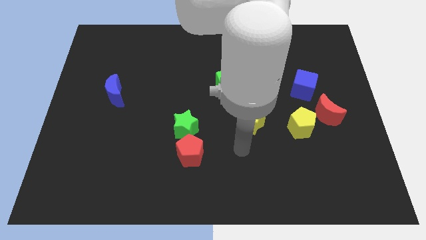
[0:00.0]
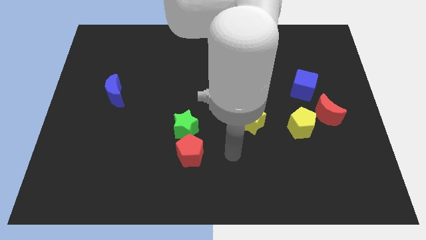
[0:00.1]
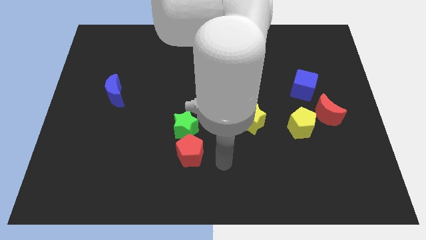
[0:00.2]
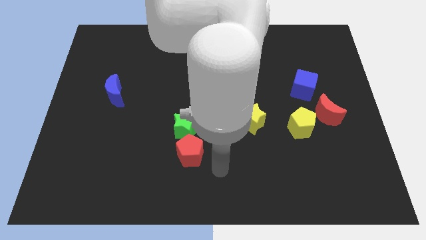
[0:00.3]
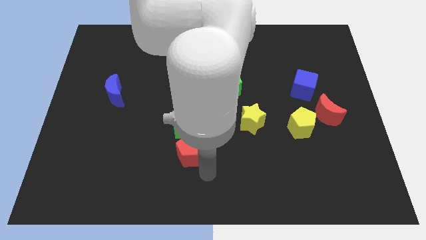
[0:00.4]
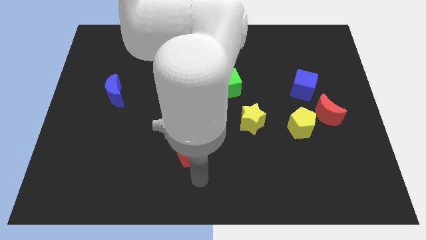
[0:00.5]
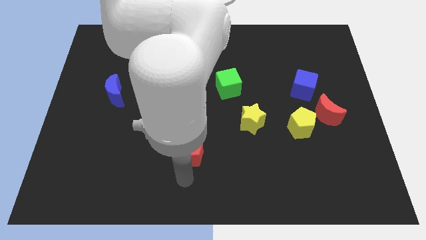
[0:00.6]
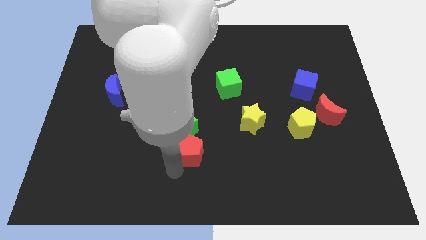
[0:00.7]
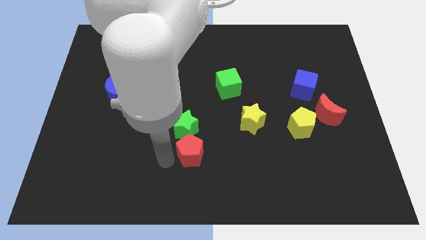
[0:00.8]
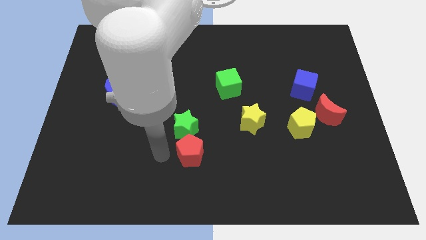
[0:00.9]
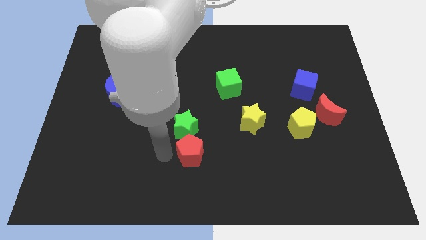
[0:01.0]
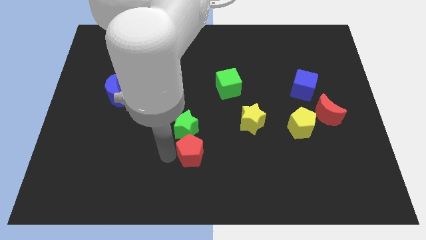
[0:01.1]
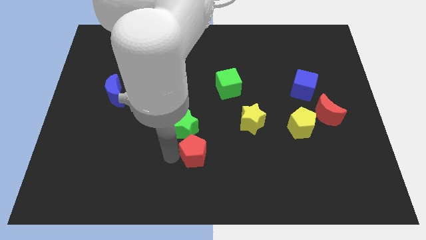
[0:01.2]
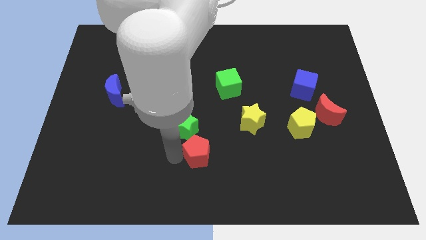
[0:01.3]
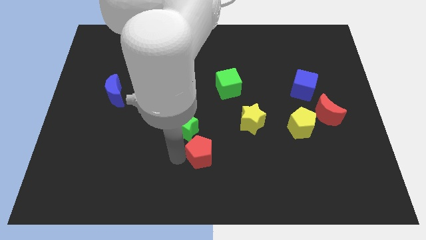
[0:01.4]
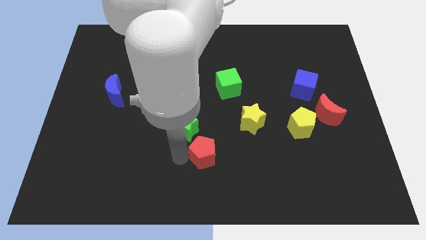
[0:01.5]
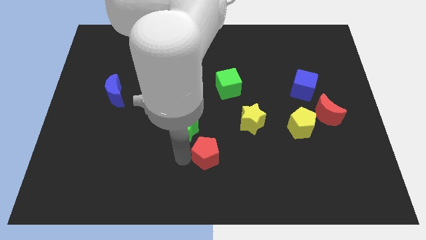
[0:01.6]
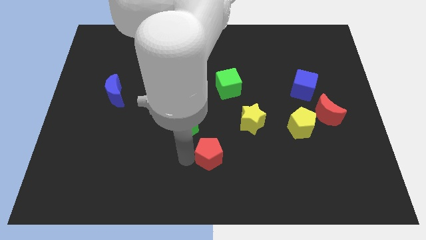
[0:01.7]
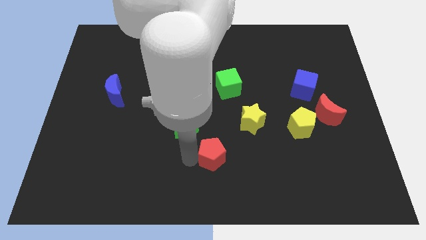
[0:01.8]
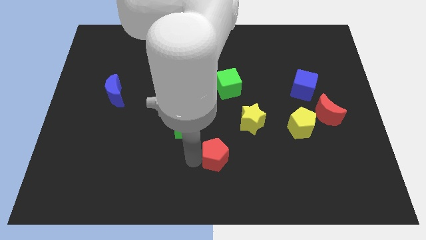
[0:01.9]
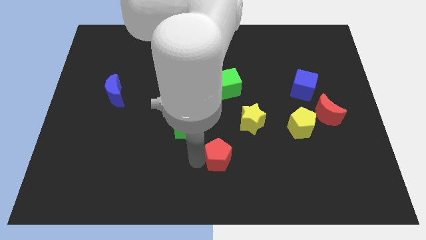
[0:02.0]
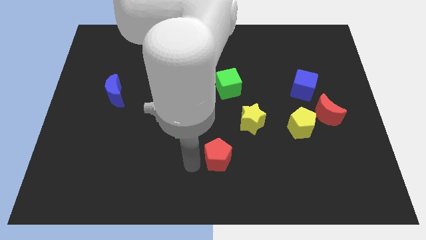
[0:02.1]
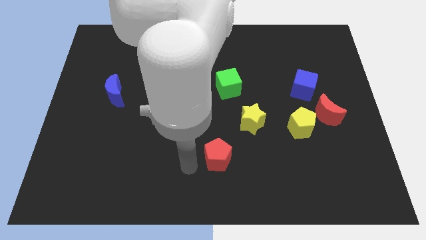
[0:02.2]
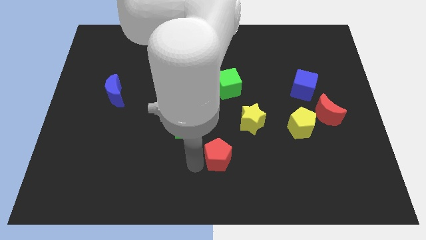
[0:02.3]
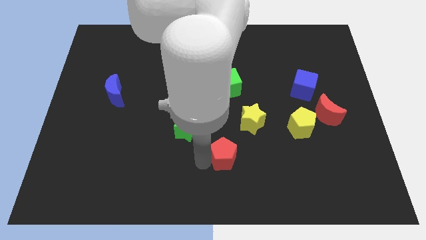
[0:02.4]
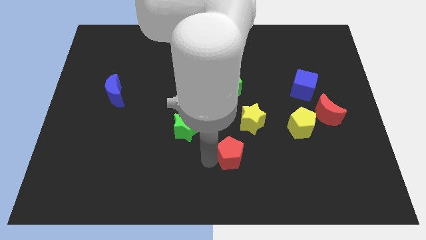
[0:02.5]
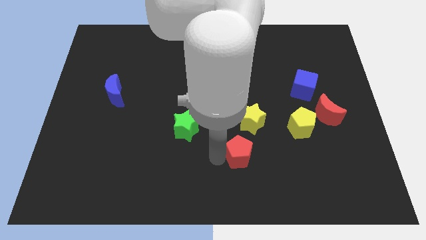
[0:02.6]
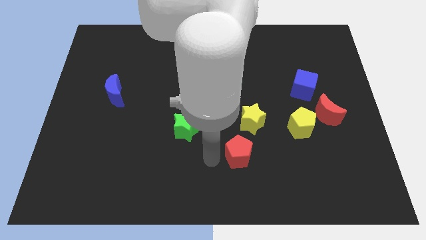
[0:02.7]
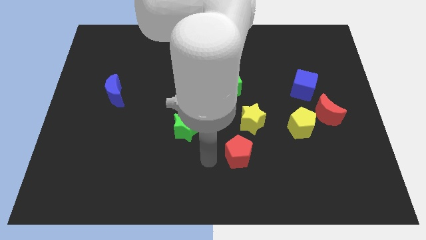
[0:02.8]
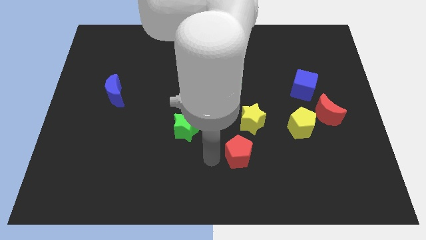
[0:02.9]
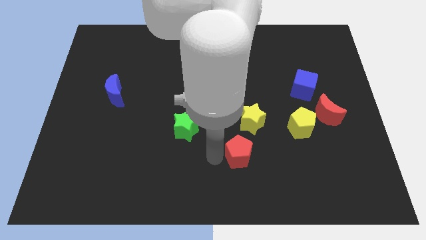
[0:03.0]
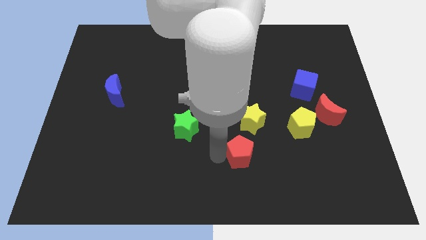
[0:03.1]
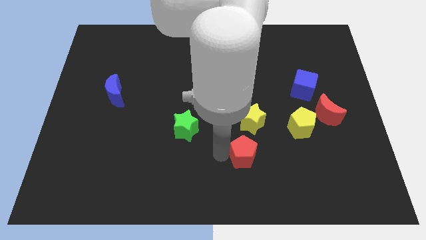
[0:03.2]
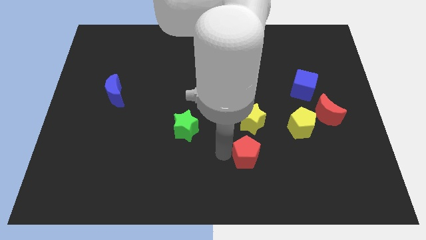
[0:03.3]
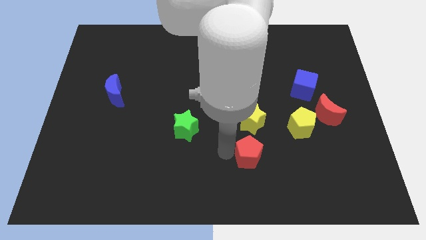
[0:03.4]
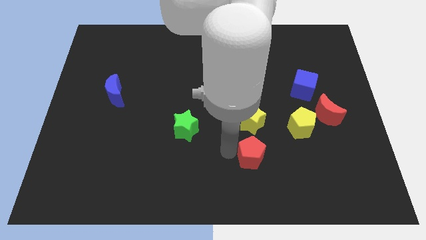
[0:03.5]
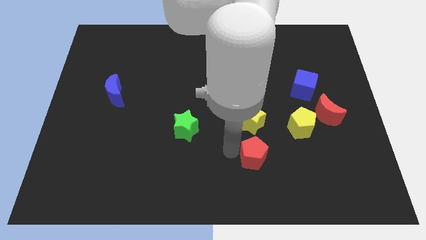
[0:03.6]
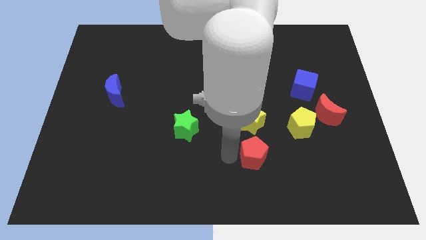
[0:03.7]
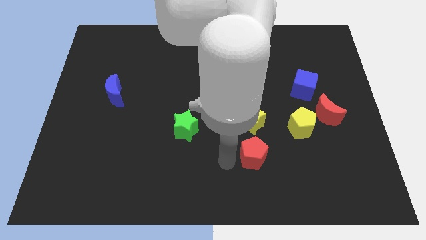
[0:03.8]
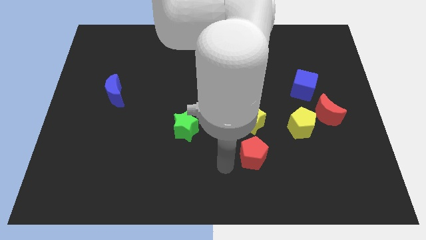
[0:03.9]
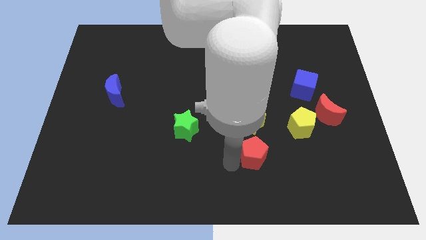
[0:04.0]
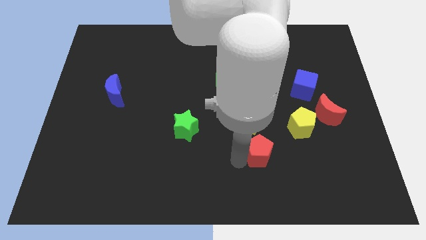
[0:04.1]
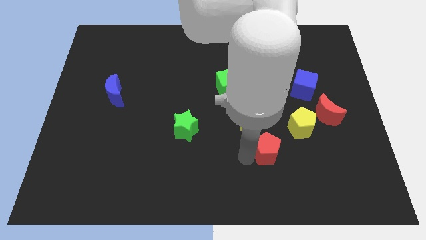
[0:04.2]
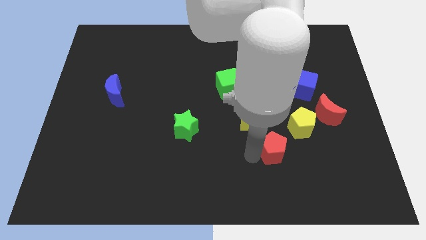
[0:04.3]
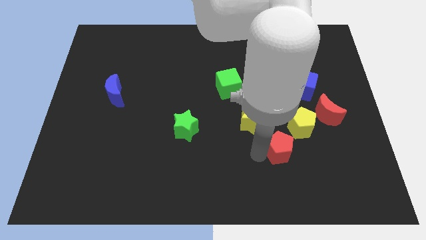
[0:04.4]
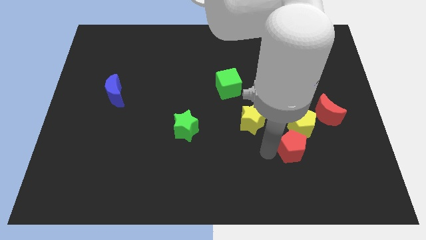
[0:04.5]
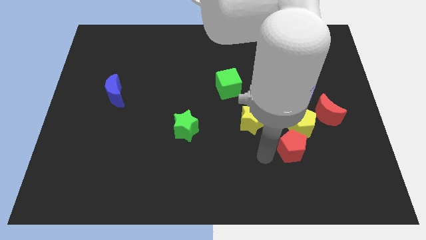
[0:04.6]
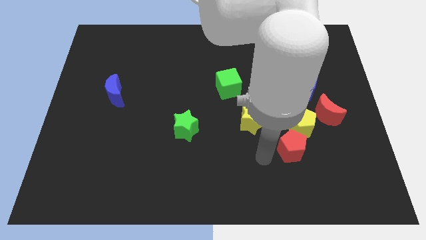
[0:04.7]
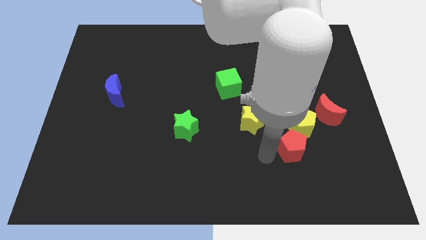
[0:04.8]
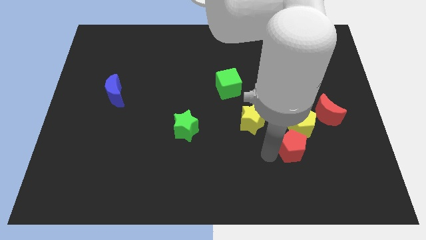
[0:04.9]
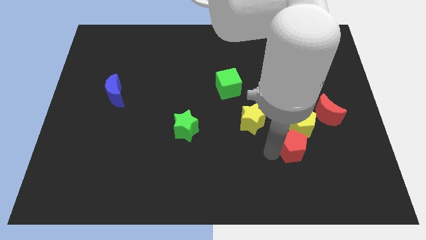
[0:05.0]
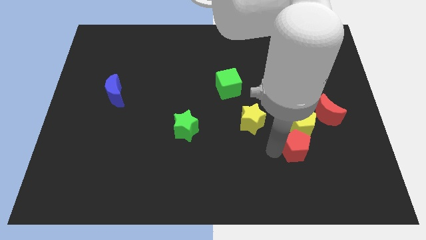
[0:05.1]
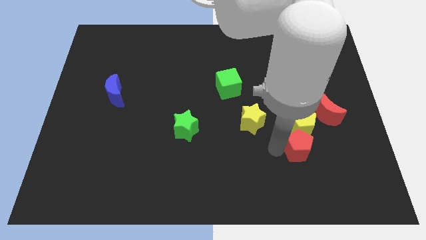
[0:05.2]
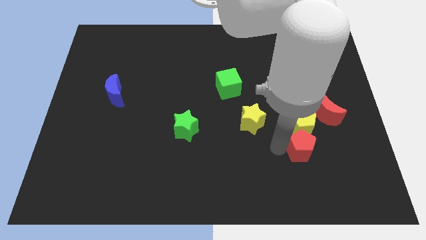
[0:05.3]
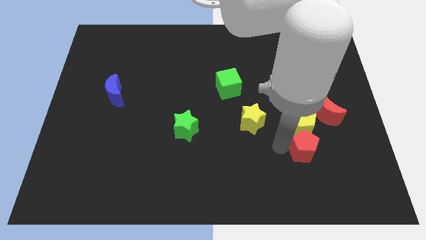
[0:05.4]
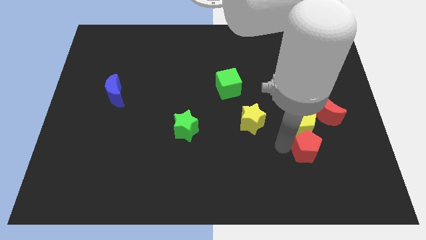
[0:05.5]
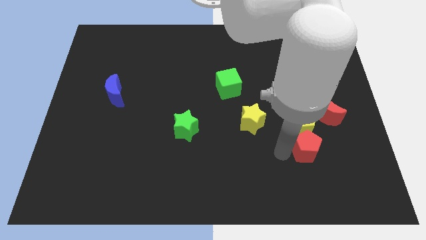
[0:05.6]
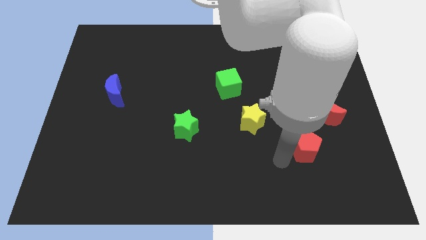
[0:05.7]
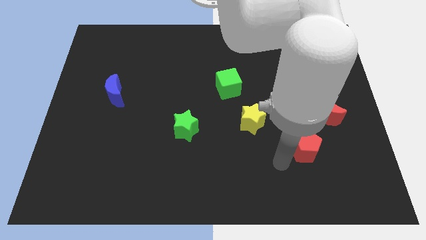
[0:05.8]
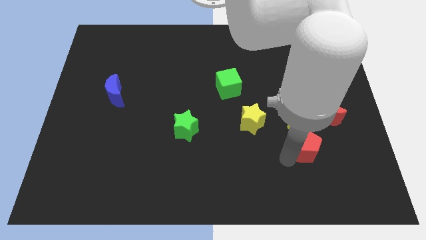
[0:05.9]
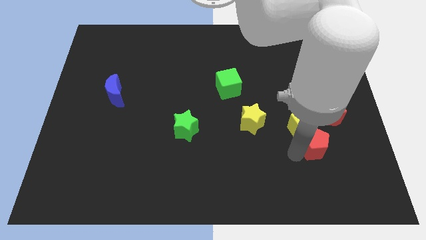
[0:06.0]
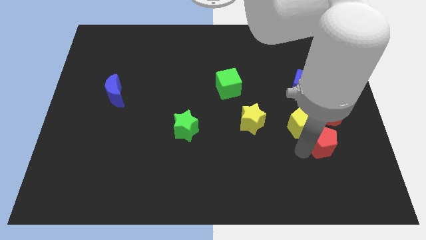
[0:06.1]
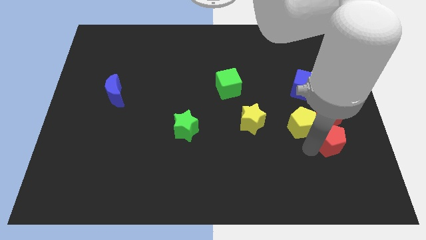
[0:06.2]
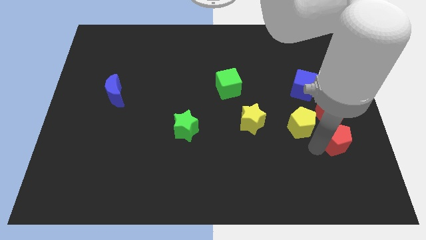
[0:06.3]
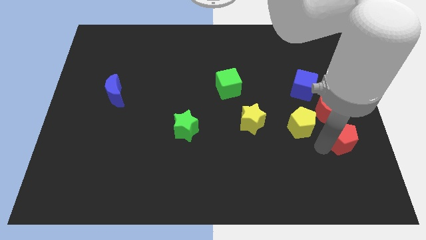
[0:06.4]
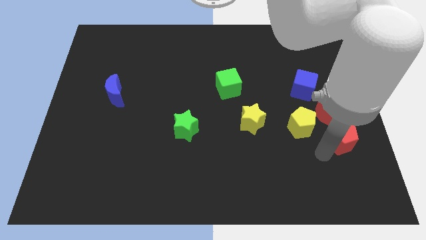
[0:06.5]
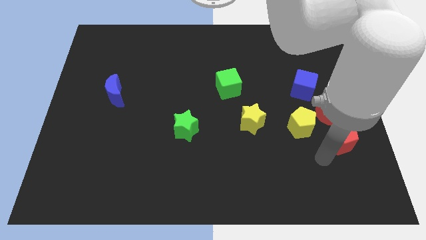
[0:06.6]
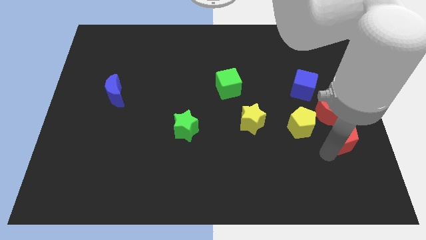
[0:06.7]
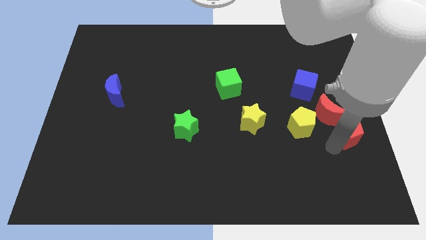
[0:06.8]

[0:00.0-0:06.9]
push the red pentagon to the right side of the board

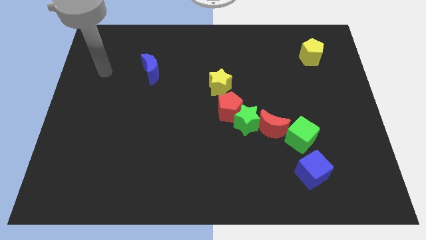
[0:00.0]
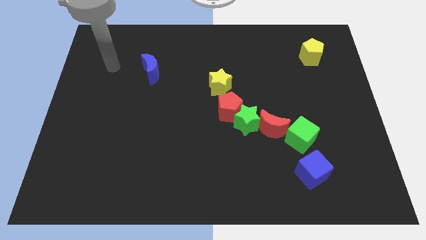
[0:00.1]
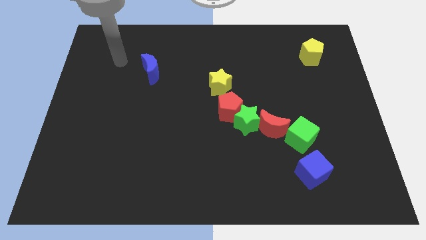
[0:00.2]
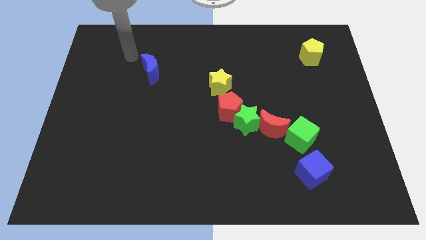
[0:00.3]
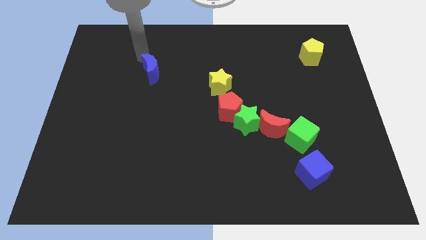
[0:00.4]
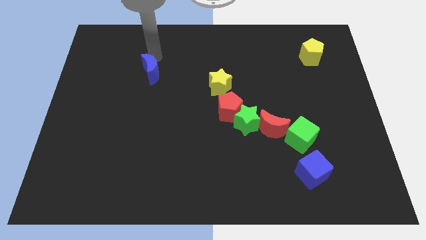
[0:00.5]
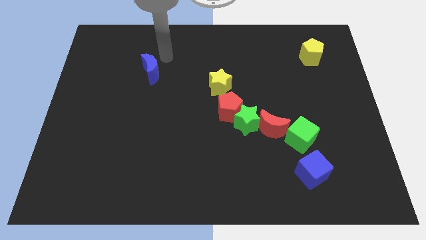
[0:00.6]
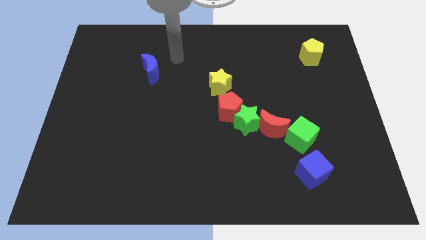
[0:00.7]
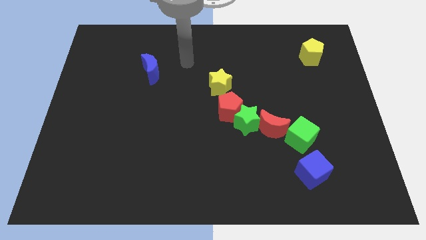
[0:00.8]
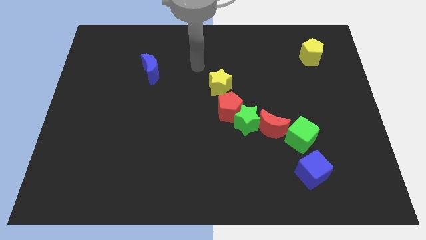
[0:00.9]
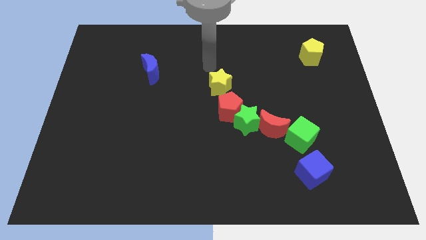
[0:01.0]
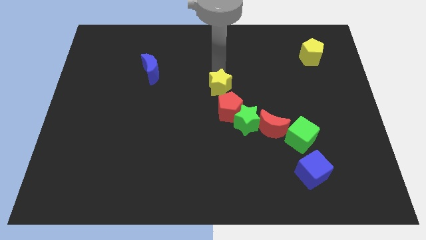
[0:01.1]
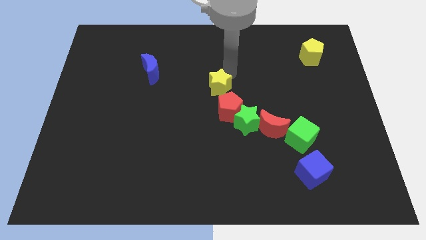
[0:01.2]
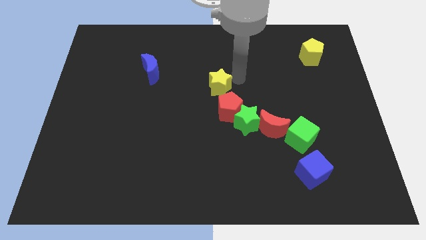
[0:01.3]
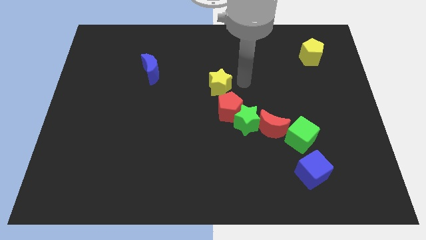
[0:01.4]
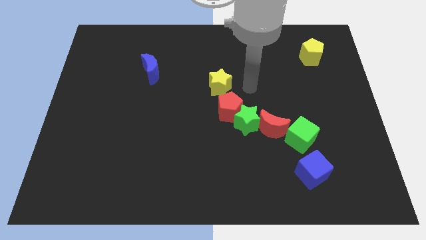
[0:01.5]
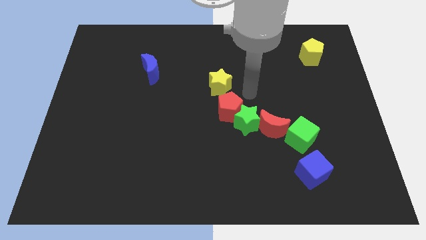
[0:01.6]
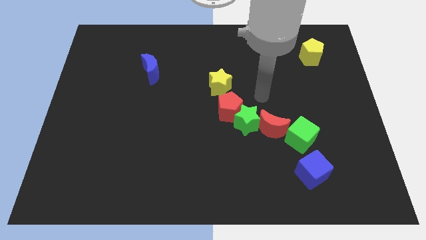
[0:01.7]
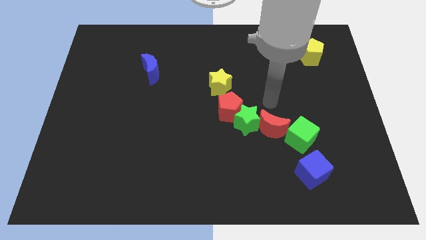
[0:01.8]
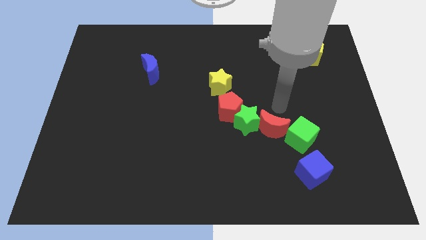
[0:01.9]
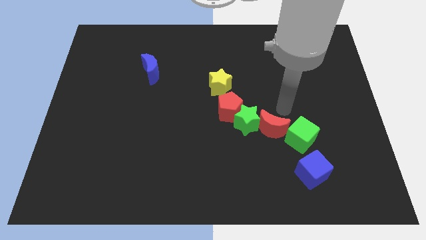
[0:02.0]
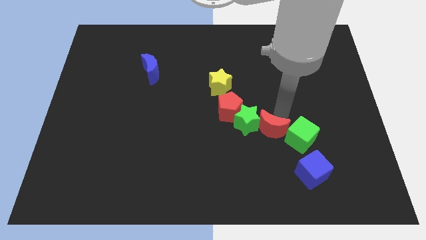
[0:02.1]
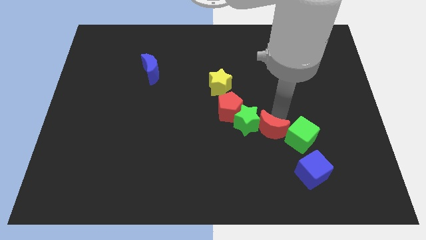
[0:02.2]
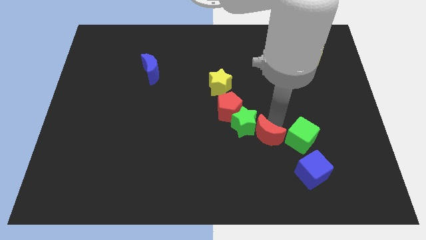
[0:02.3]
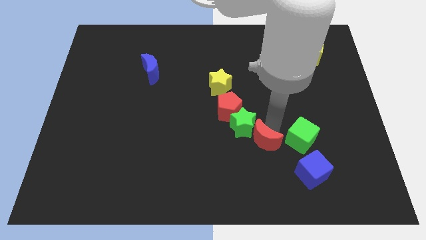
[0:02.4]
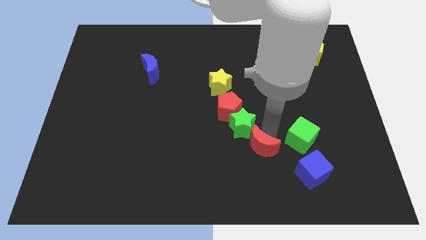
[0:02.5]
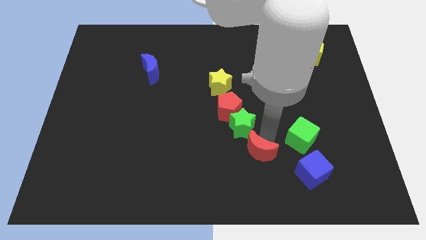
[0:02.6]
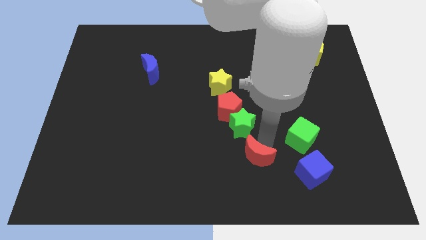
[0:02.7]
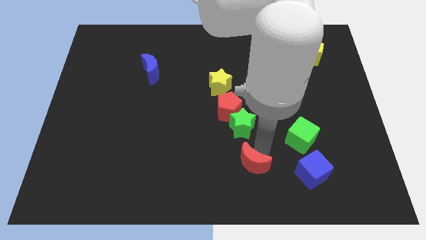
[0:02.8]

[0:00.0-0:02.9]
put the red moon to the bottom side
